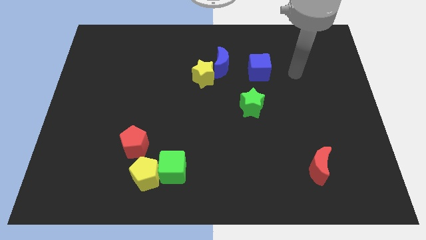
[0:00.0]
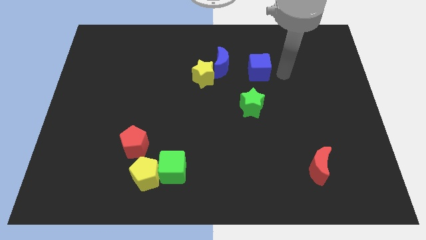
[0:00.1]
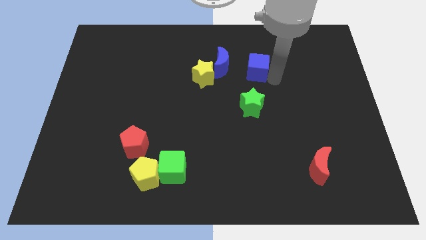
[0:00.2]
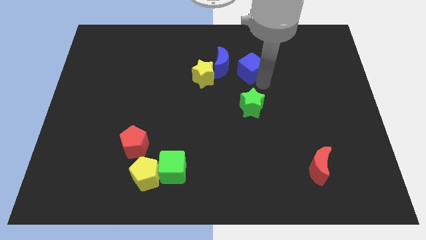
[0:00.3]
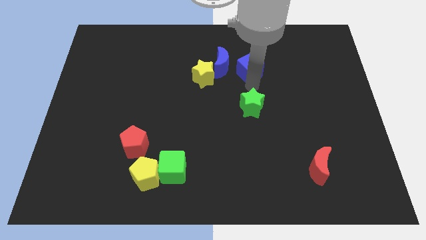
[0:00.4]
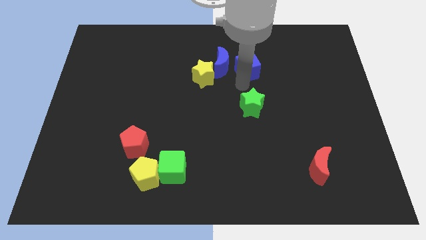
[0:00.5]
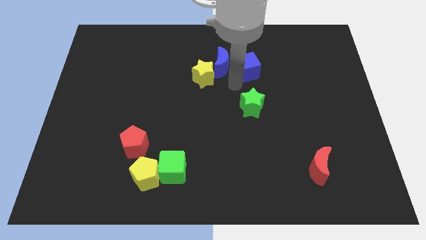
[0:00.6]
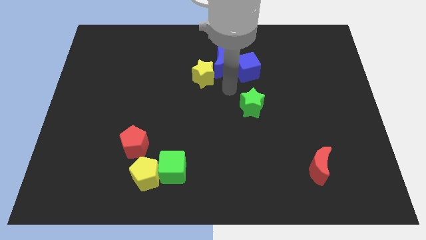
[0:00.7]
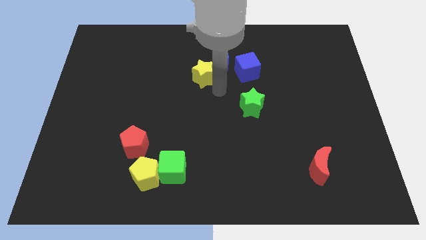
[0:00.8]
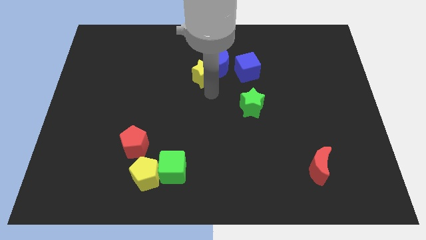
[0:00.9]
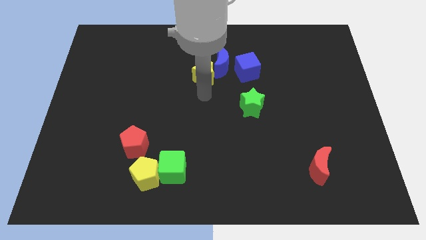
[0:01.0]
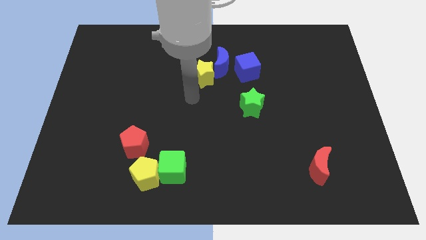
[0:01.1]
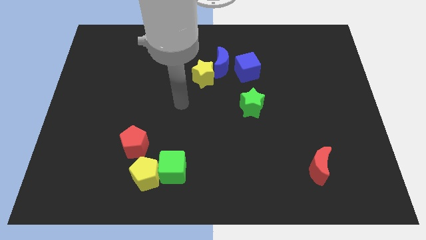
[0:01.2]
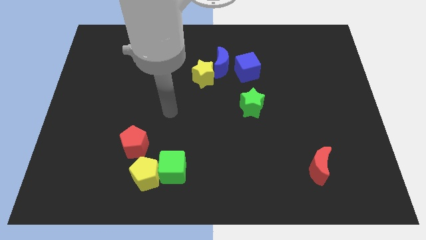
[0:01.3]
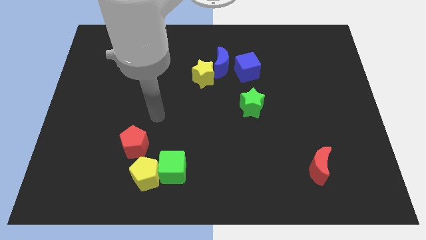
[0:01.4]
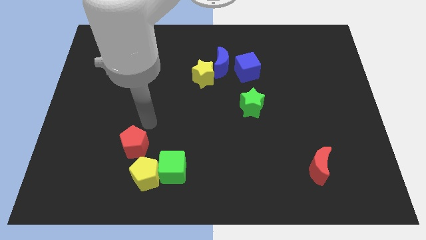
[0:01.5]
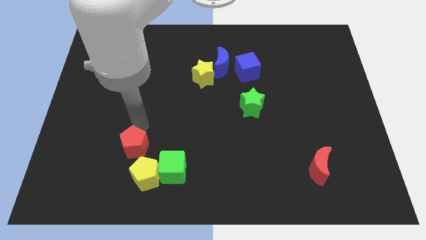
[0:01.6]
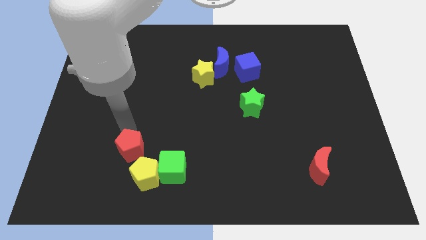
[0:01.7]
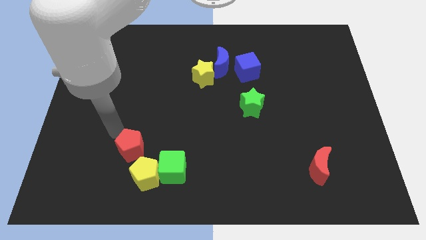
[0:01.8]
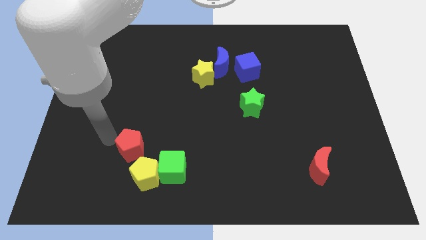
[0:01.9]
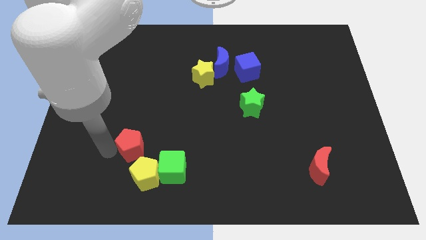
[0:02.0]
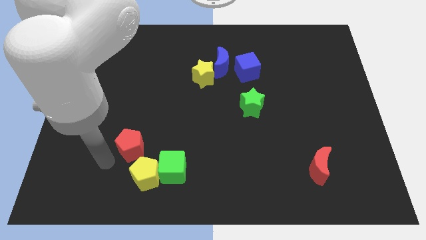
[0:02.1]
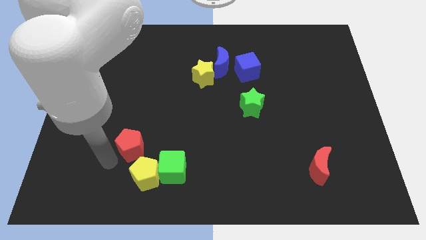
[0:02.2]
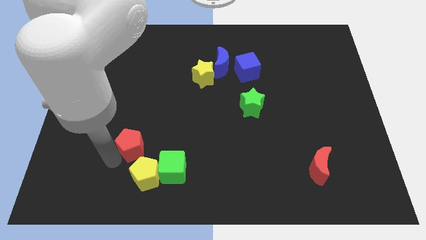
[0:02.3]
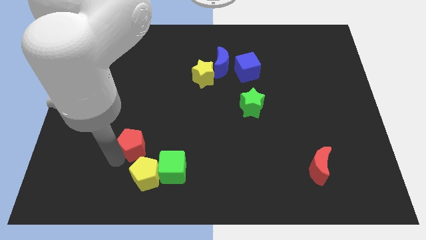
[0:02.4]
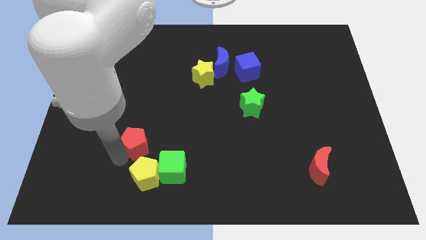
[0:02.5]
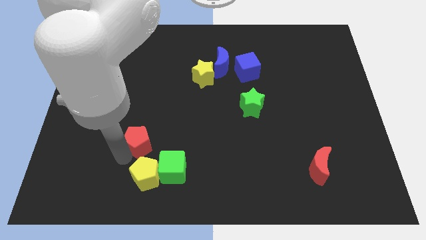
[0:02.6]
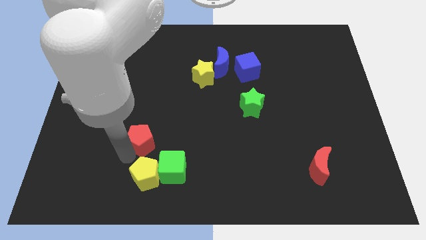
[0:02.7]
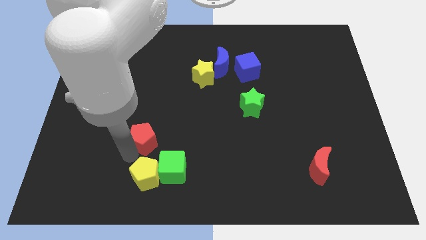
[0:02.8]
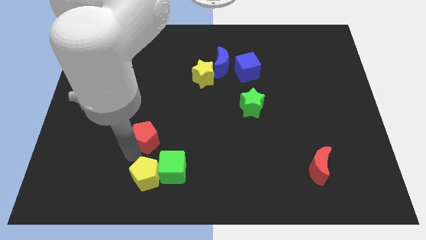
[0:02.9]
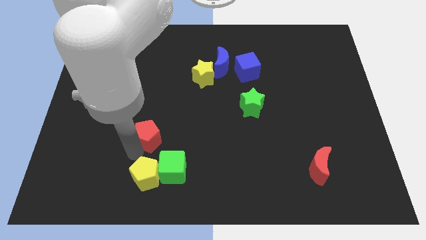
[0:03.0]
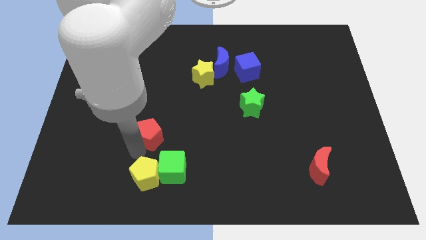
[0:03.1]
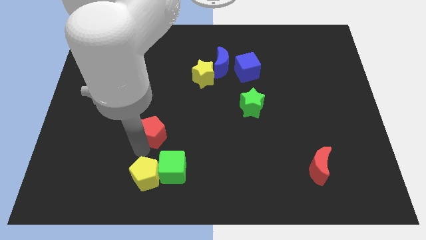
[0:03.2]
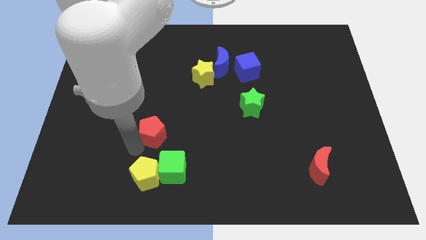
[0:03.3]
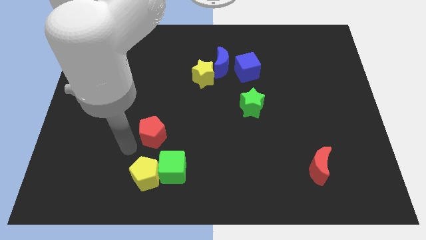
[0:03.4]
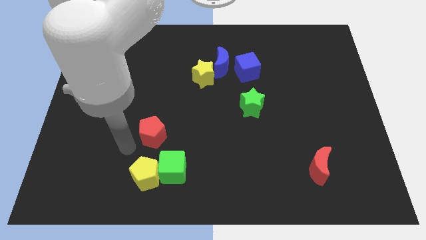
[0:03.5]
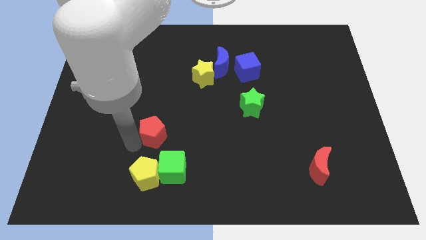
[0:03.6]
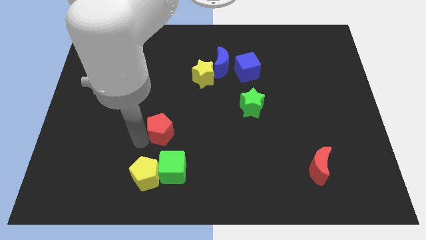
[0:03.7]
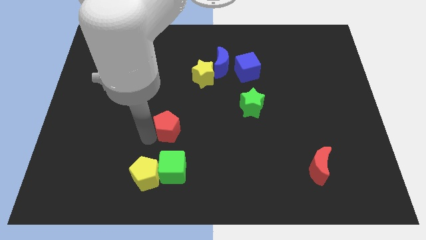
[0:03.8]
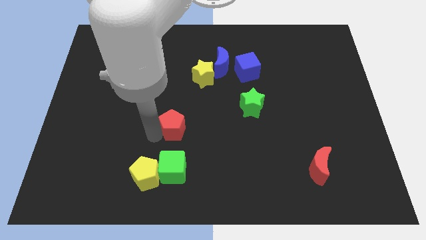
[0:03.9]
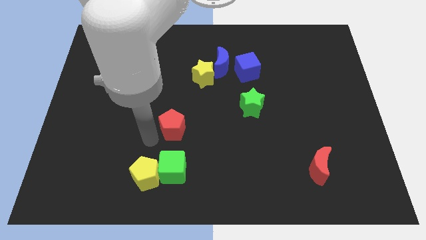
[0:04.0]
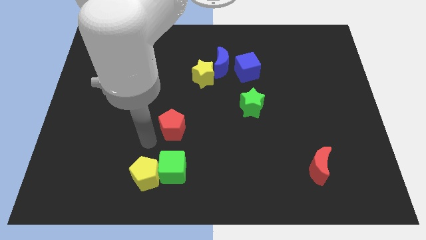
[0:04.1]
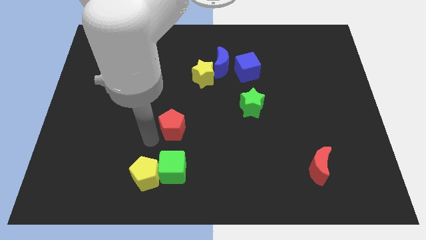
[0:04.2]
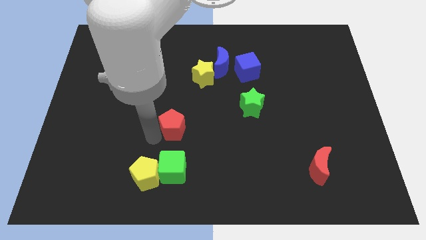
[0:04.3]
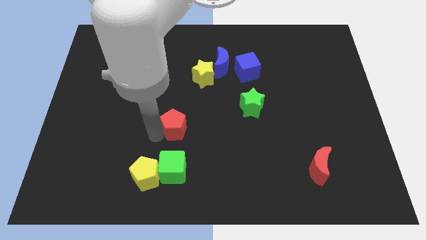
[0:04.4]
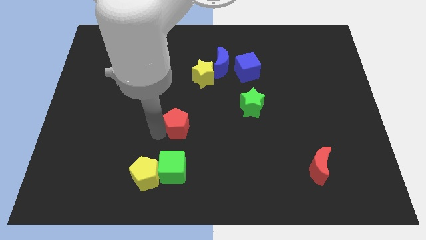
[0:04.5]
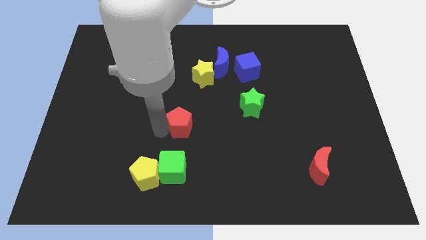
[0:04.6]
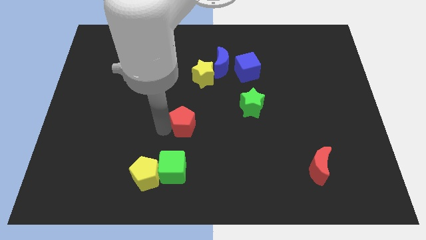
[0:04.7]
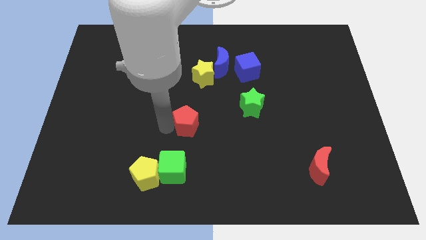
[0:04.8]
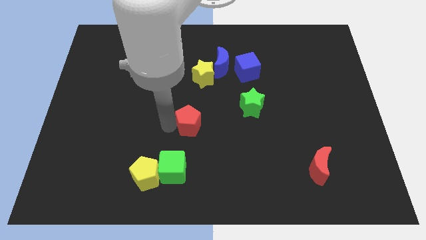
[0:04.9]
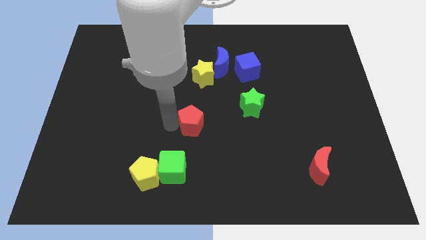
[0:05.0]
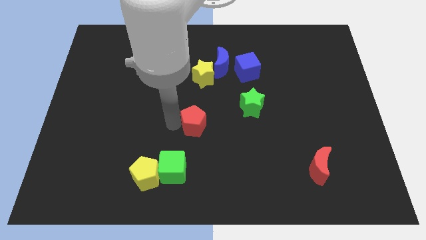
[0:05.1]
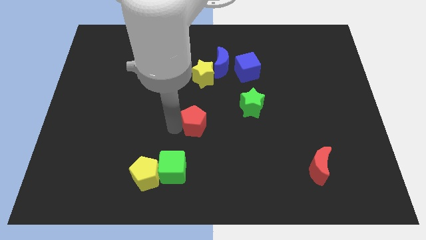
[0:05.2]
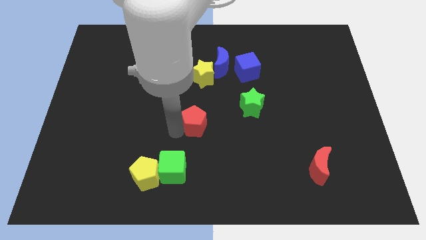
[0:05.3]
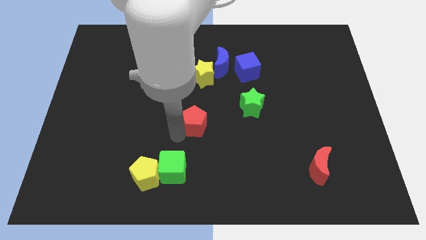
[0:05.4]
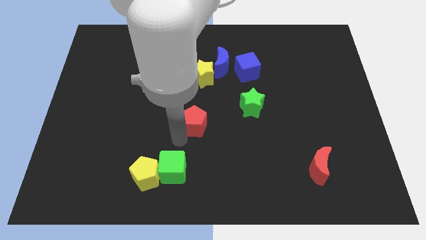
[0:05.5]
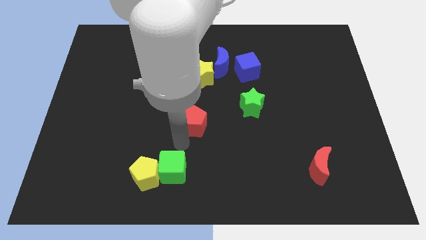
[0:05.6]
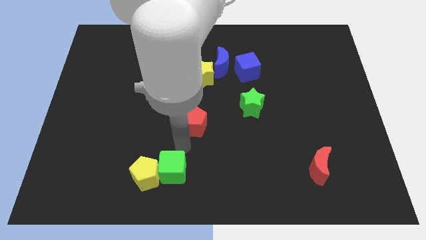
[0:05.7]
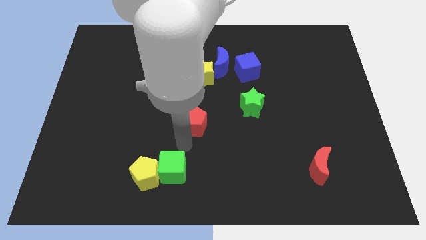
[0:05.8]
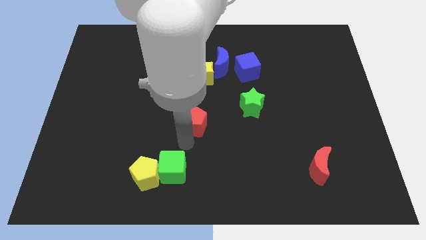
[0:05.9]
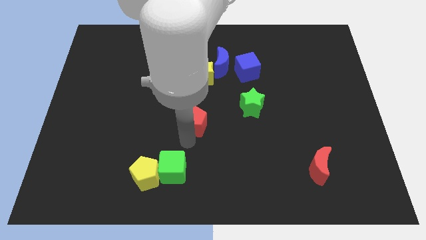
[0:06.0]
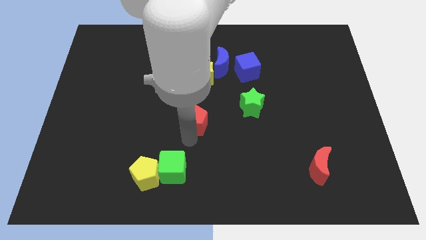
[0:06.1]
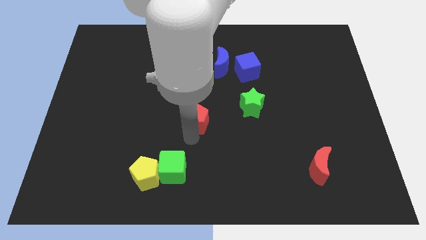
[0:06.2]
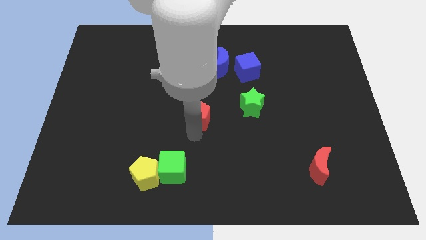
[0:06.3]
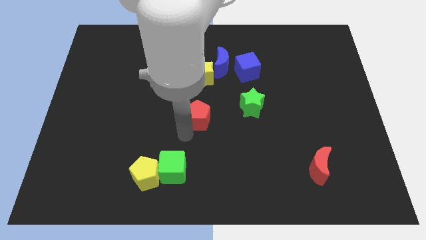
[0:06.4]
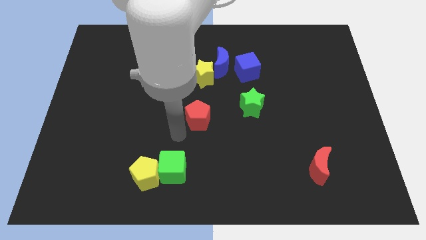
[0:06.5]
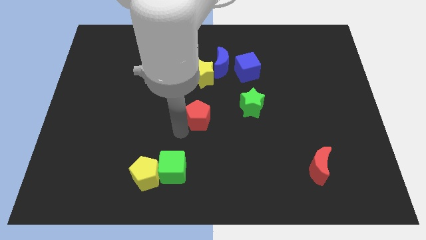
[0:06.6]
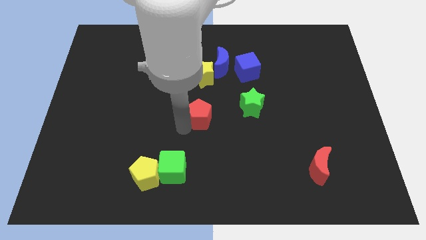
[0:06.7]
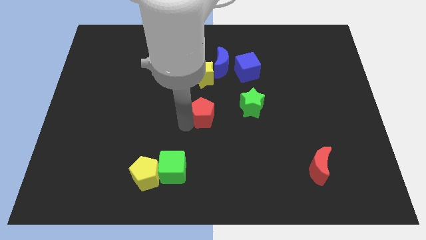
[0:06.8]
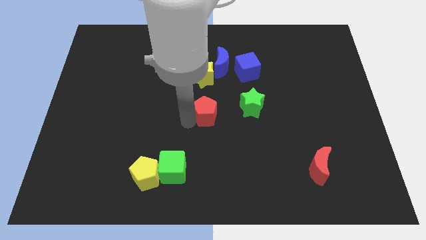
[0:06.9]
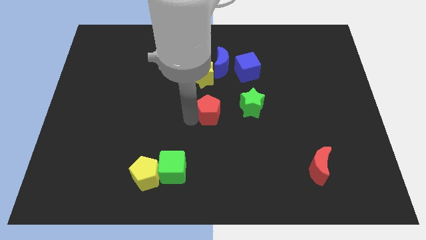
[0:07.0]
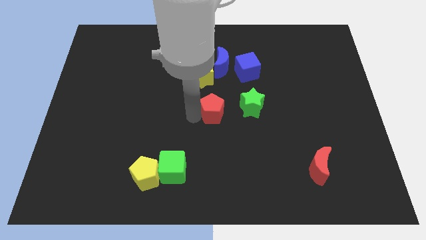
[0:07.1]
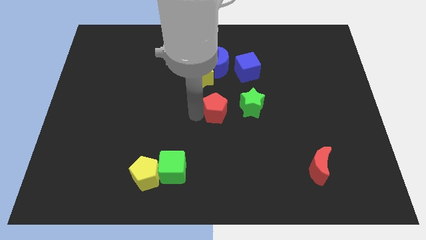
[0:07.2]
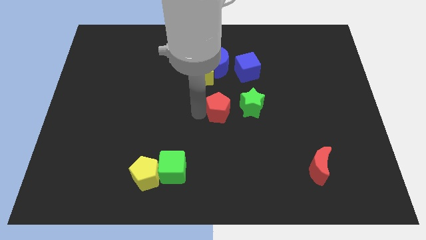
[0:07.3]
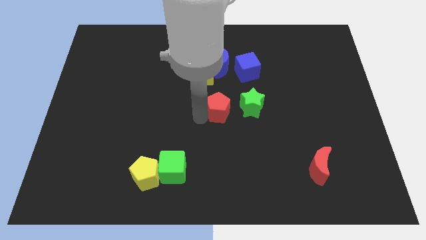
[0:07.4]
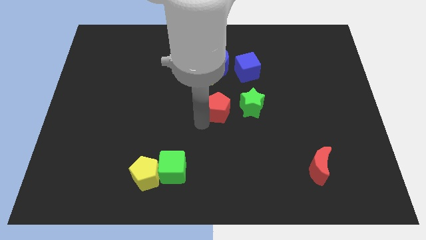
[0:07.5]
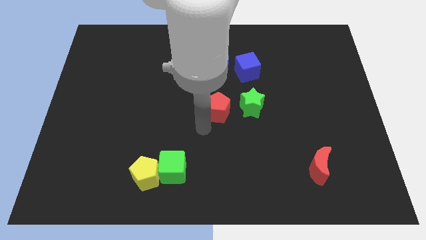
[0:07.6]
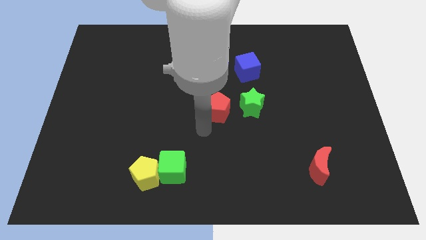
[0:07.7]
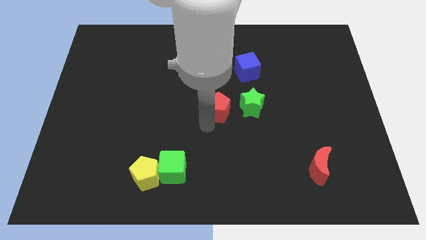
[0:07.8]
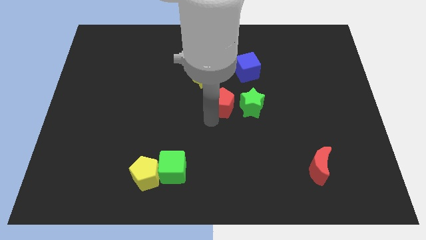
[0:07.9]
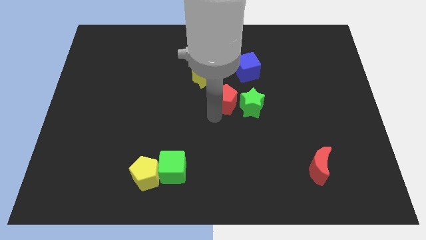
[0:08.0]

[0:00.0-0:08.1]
put the red pentagon to the bottom left side of the blue cube
